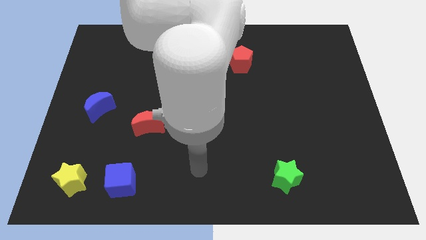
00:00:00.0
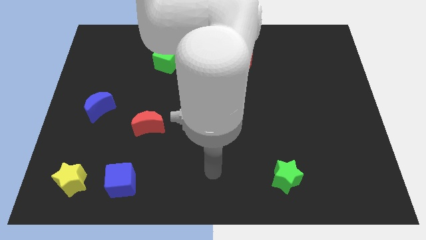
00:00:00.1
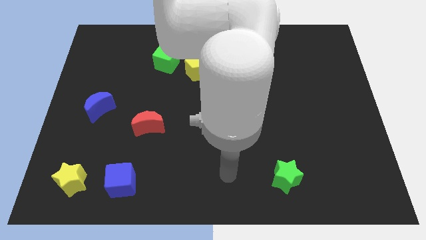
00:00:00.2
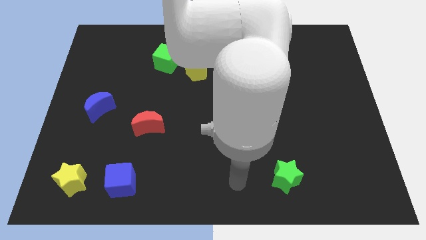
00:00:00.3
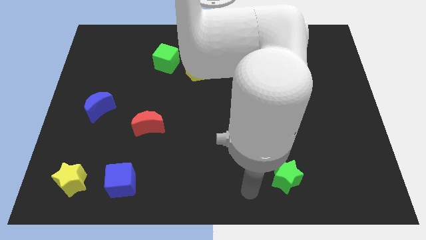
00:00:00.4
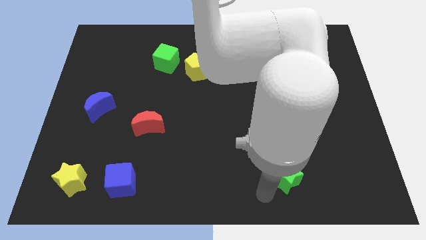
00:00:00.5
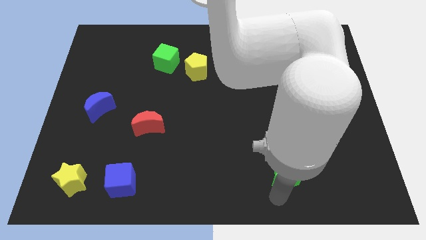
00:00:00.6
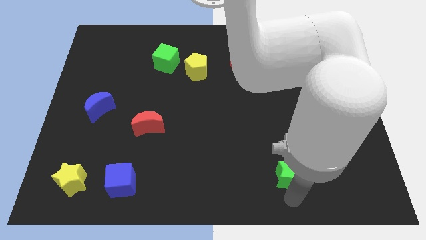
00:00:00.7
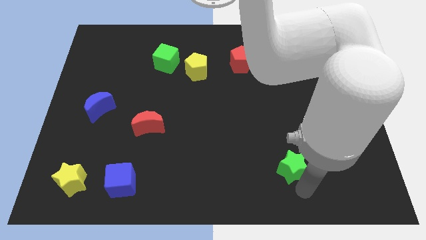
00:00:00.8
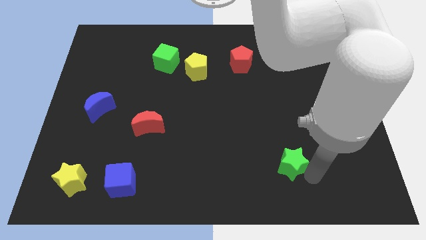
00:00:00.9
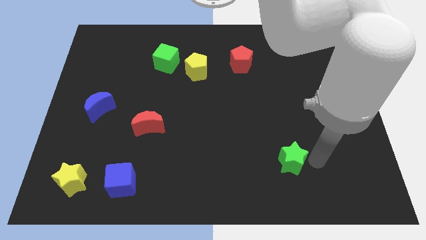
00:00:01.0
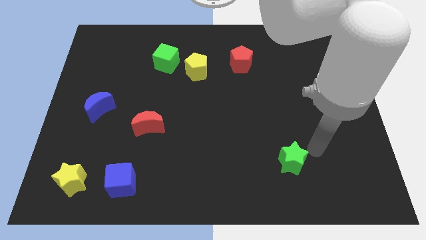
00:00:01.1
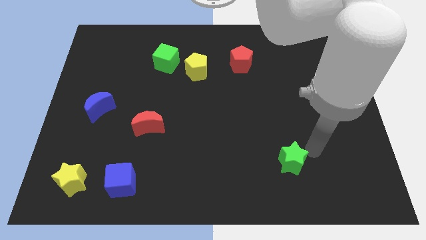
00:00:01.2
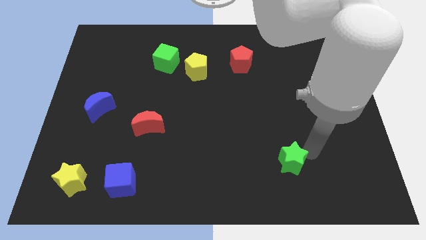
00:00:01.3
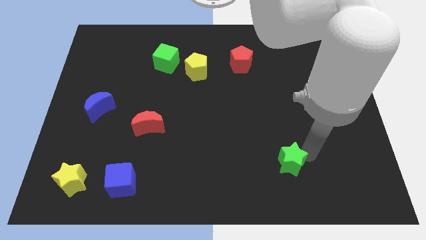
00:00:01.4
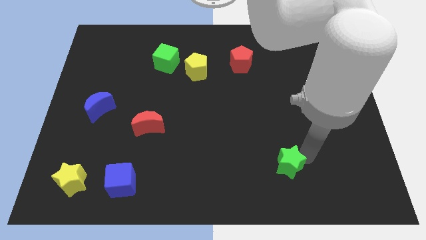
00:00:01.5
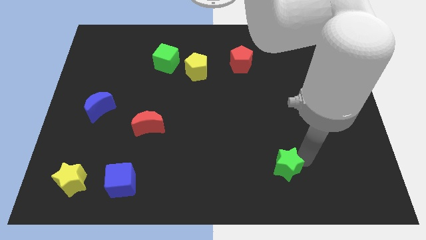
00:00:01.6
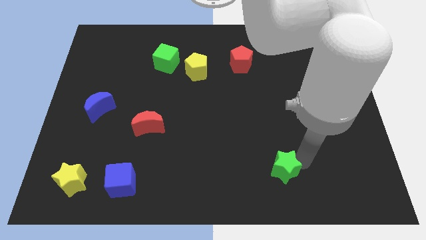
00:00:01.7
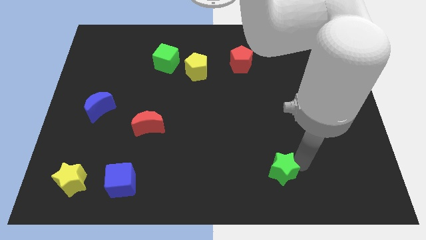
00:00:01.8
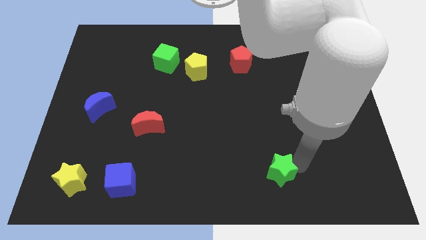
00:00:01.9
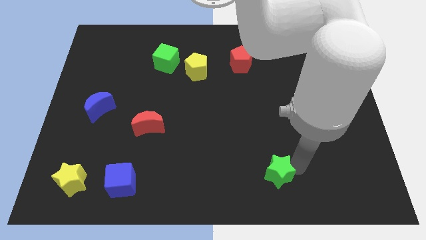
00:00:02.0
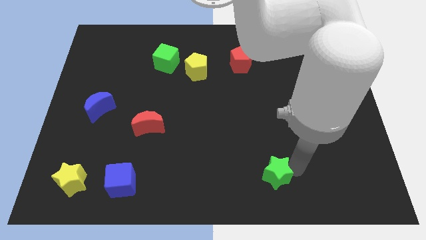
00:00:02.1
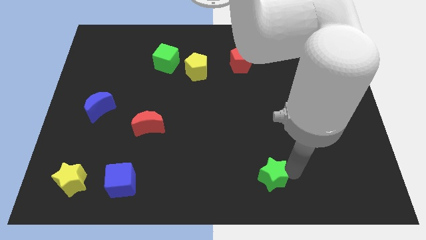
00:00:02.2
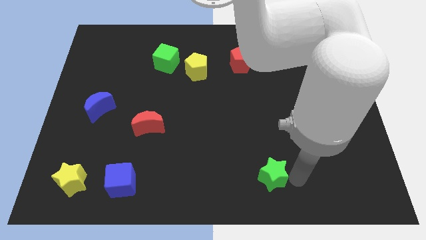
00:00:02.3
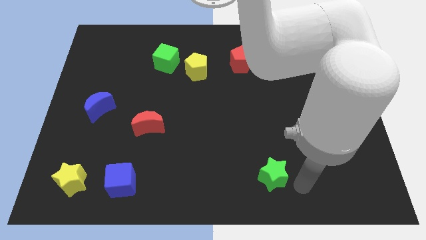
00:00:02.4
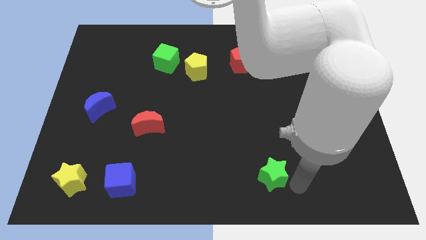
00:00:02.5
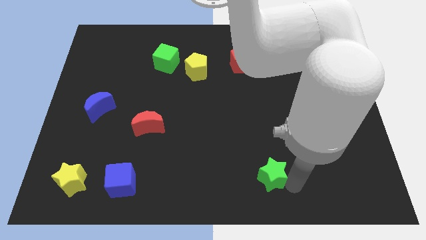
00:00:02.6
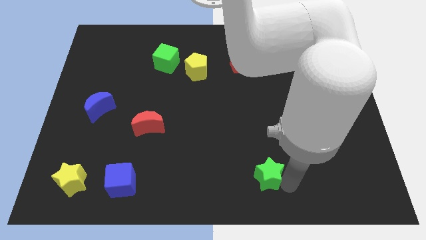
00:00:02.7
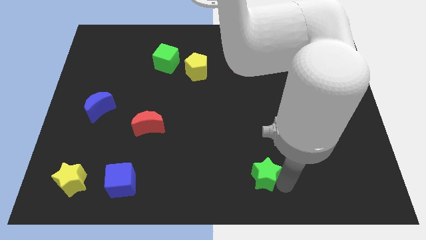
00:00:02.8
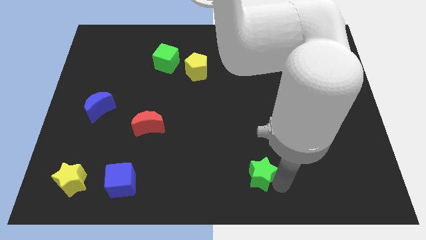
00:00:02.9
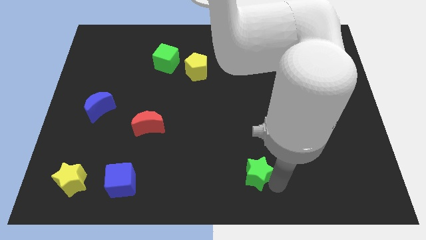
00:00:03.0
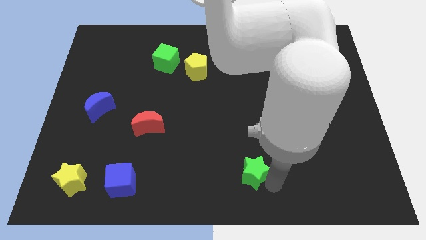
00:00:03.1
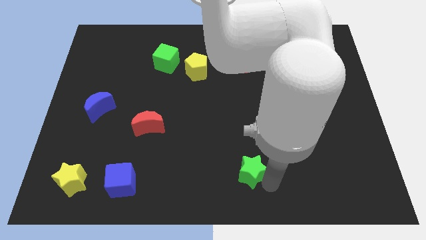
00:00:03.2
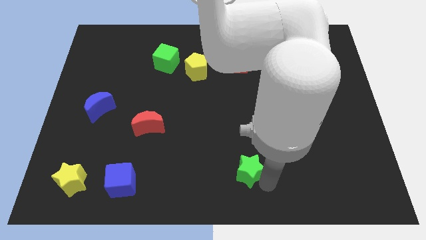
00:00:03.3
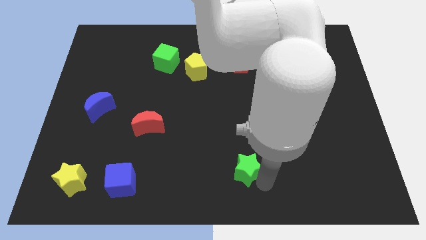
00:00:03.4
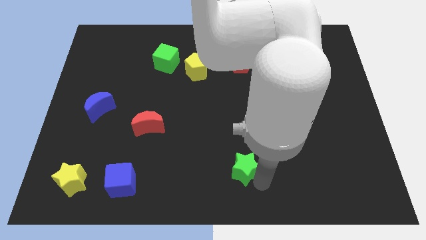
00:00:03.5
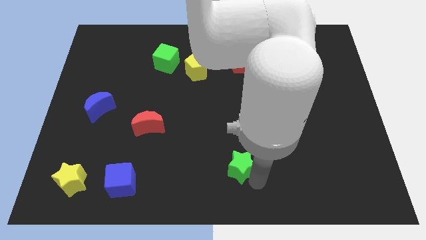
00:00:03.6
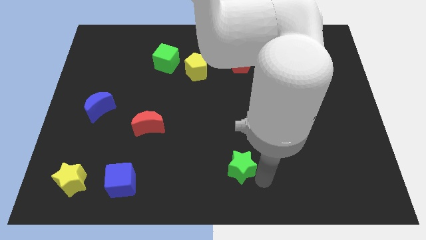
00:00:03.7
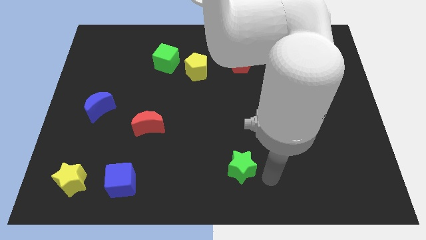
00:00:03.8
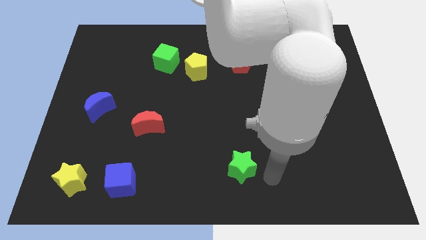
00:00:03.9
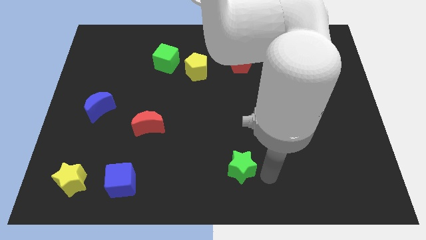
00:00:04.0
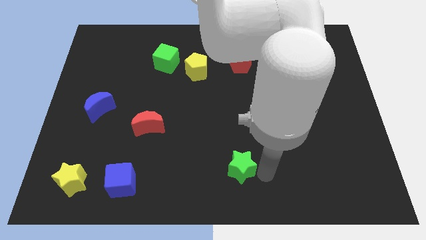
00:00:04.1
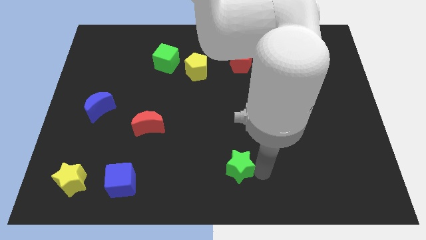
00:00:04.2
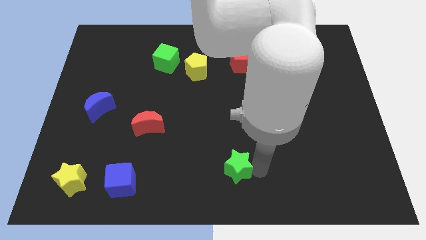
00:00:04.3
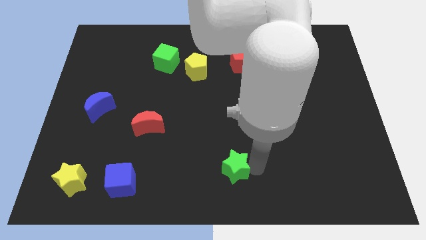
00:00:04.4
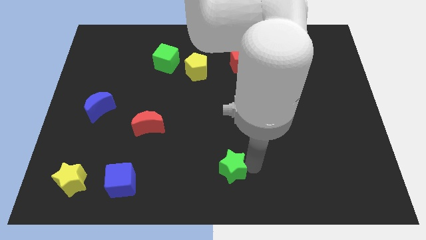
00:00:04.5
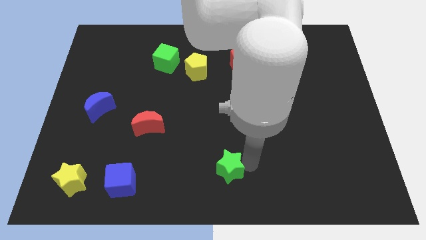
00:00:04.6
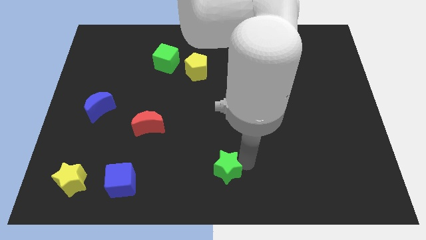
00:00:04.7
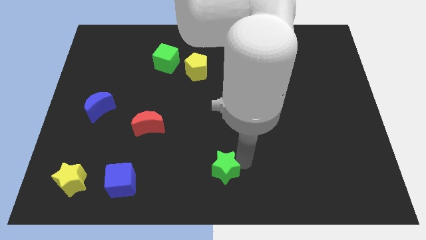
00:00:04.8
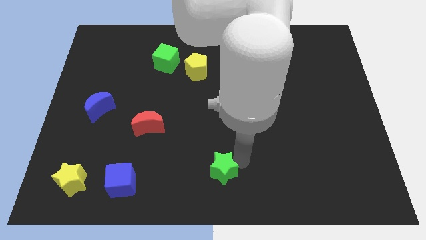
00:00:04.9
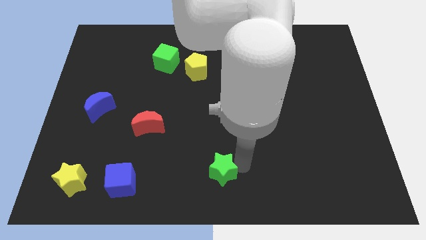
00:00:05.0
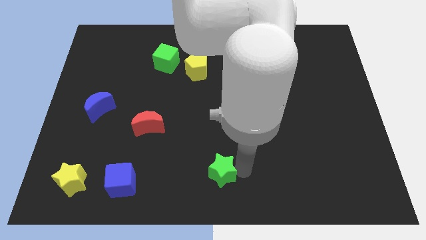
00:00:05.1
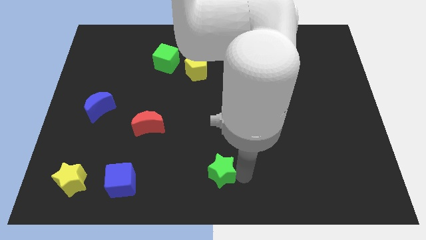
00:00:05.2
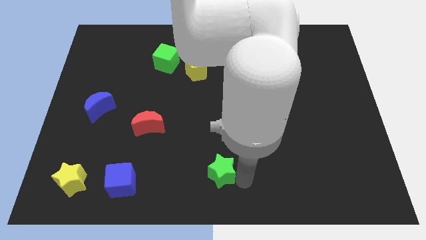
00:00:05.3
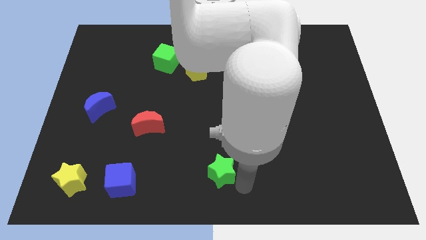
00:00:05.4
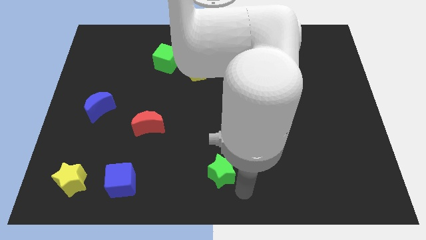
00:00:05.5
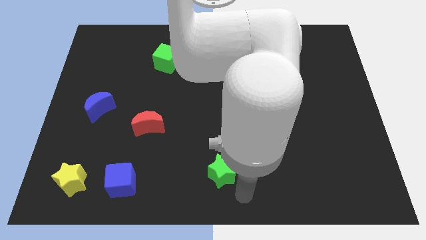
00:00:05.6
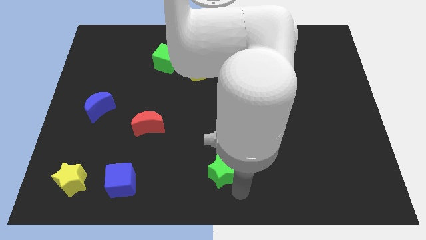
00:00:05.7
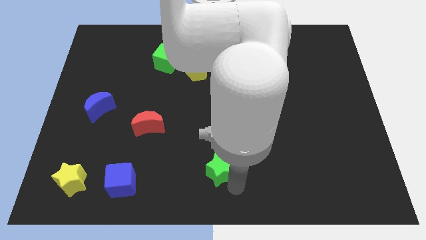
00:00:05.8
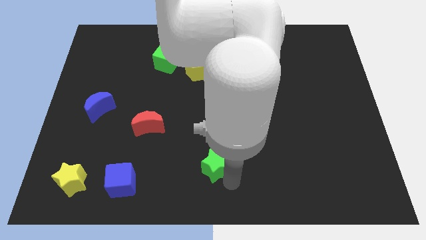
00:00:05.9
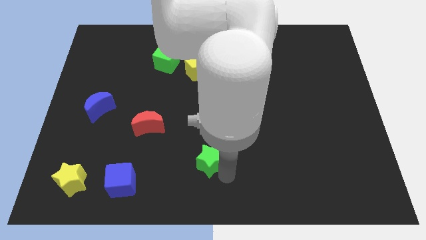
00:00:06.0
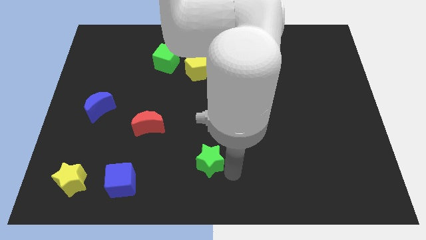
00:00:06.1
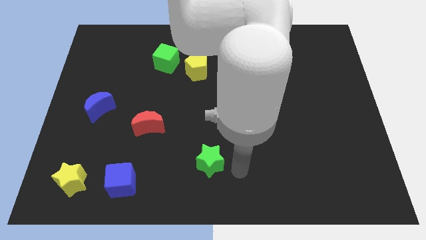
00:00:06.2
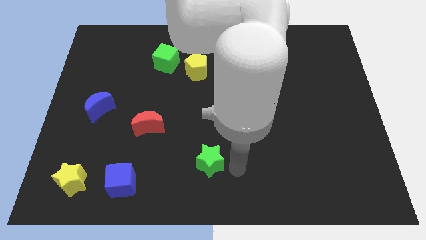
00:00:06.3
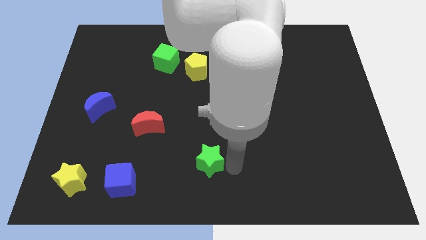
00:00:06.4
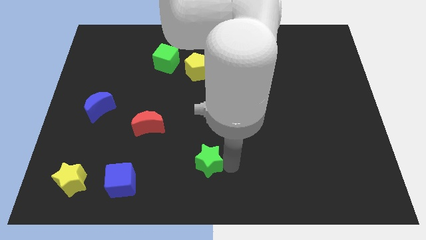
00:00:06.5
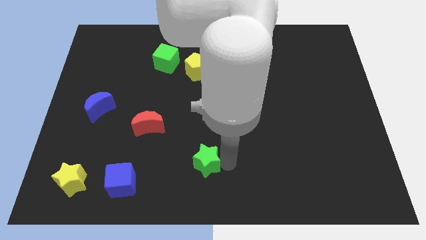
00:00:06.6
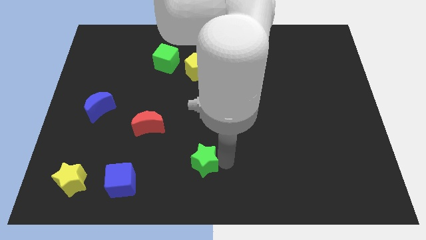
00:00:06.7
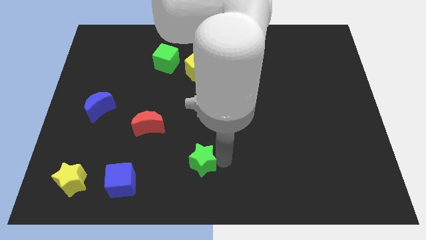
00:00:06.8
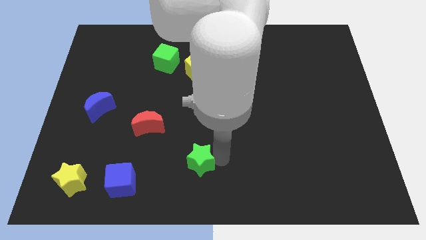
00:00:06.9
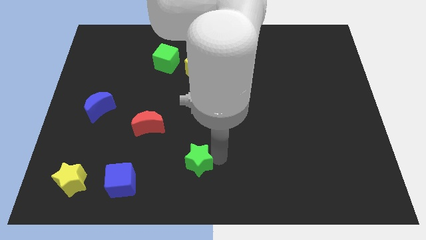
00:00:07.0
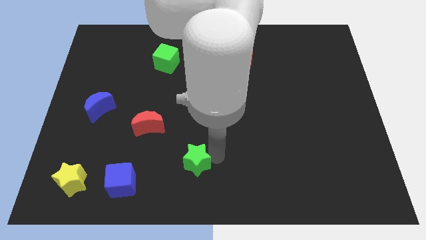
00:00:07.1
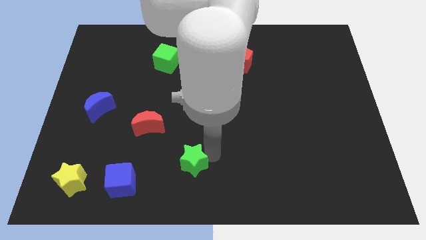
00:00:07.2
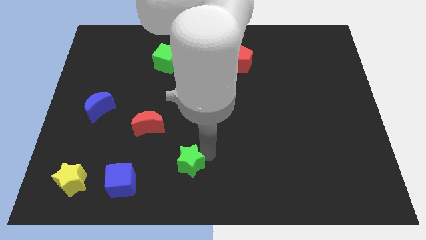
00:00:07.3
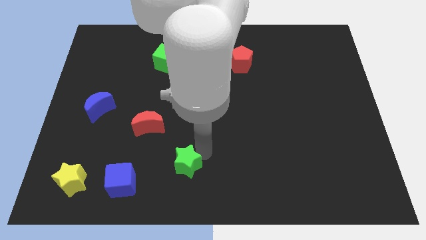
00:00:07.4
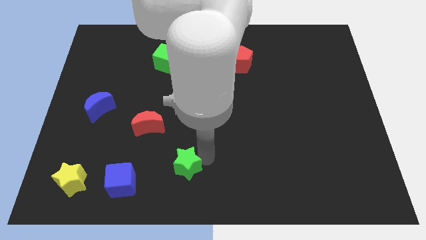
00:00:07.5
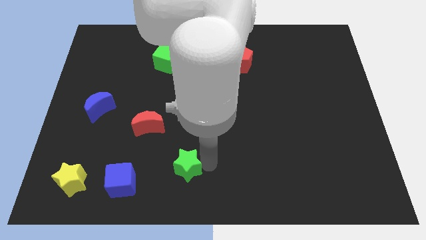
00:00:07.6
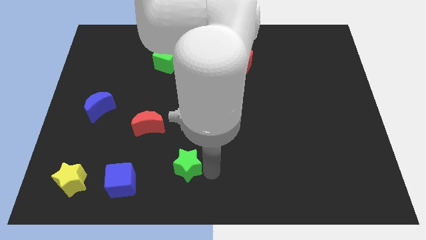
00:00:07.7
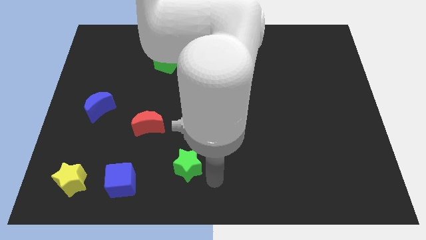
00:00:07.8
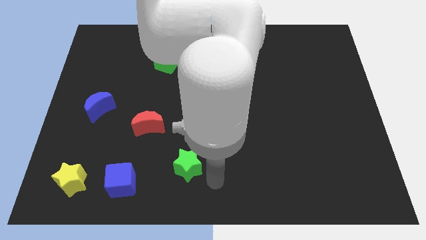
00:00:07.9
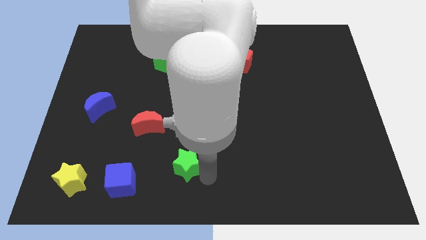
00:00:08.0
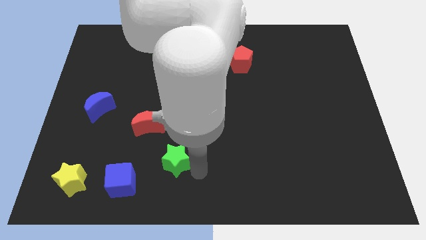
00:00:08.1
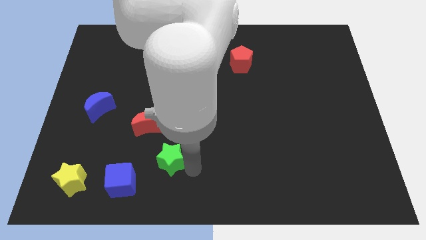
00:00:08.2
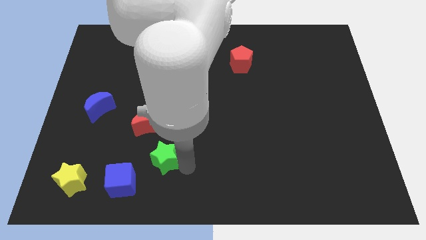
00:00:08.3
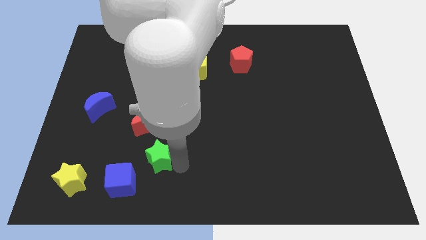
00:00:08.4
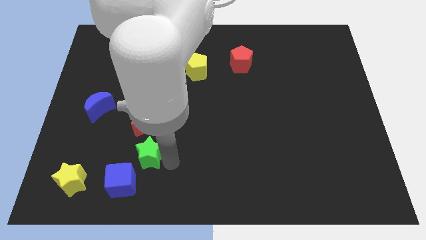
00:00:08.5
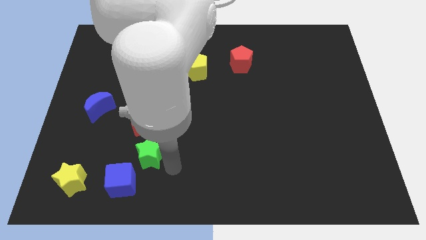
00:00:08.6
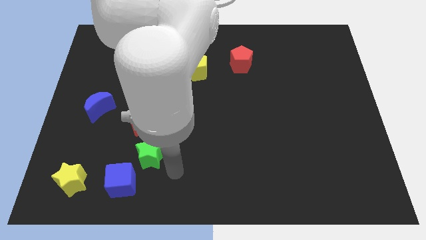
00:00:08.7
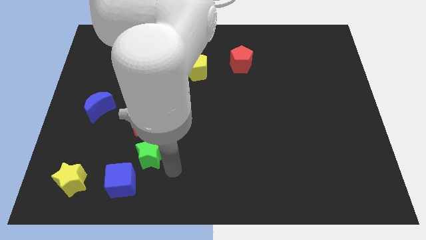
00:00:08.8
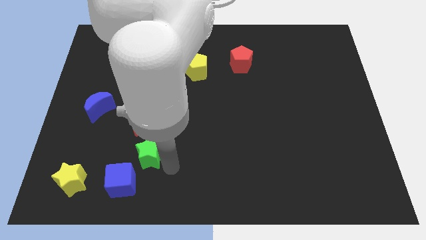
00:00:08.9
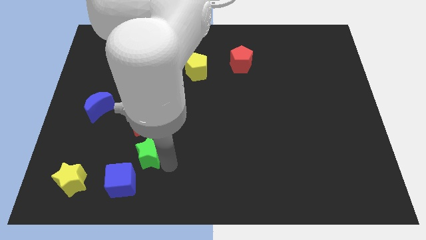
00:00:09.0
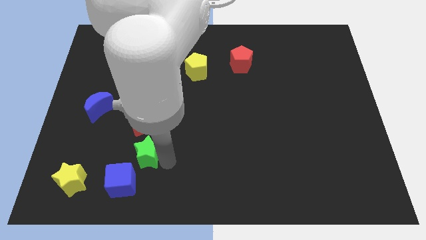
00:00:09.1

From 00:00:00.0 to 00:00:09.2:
move the green star to the top side of the blue cube
